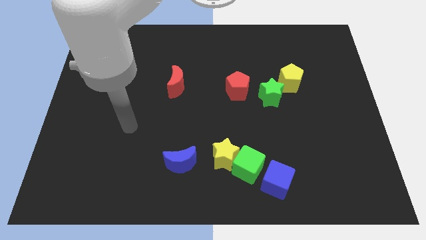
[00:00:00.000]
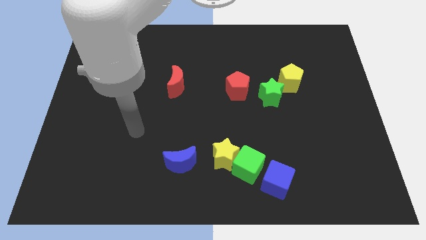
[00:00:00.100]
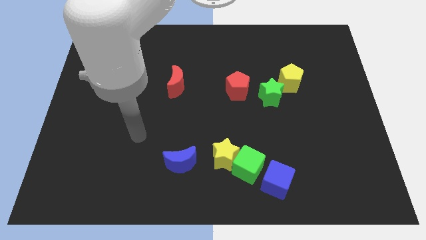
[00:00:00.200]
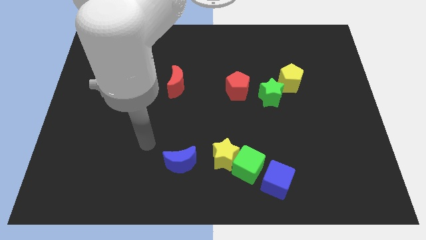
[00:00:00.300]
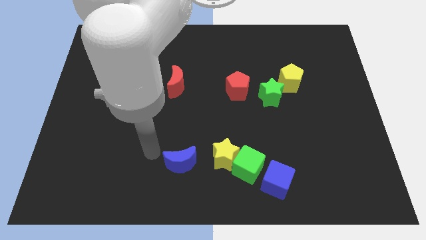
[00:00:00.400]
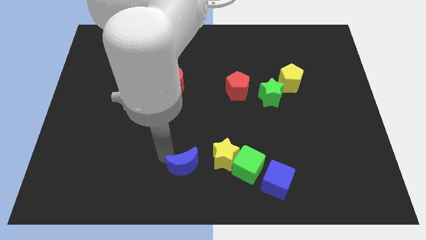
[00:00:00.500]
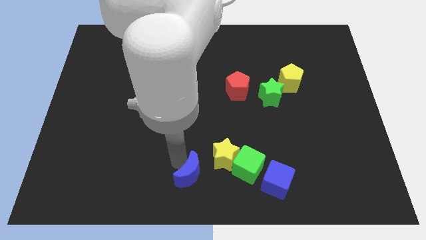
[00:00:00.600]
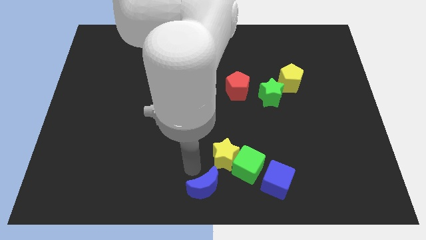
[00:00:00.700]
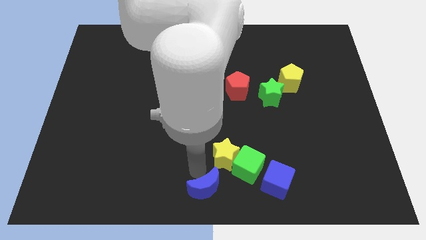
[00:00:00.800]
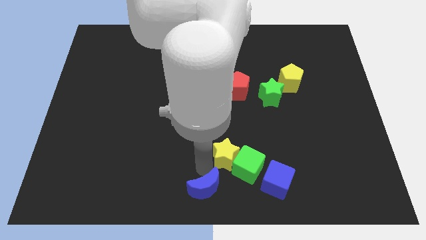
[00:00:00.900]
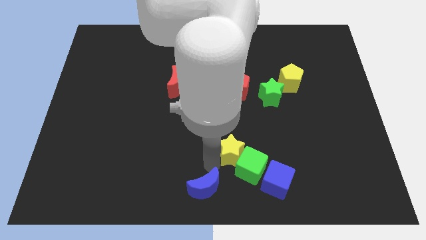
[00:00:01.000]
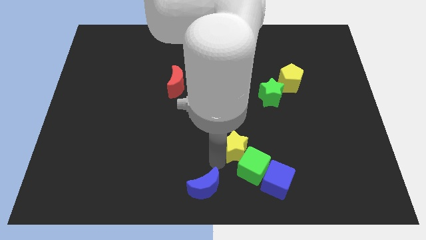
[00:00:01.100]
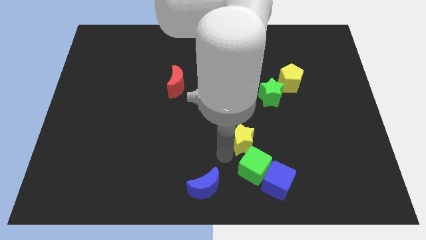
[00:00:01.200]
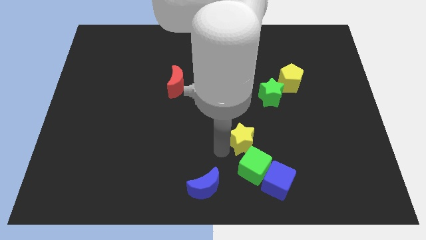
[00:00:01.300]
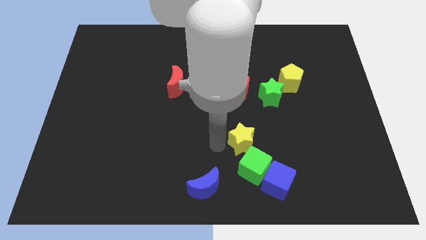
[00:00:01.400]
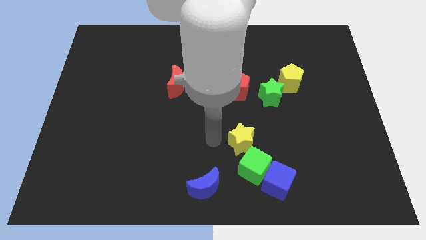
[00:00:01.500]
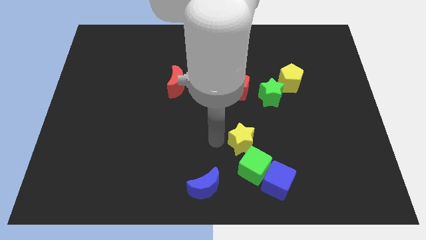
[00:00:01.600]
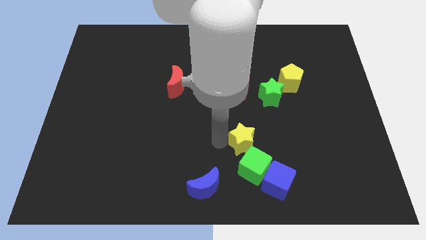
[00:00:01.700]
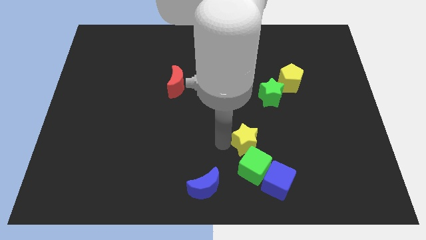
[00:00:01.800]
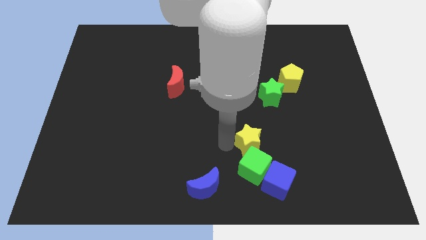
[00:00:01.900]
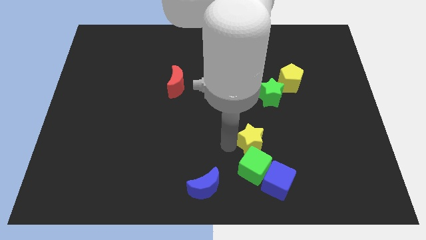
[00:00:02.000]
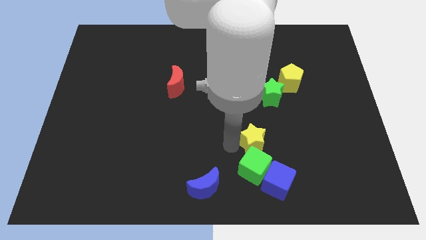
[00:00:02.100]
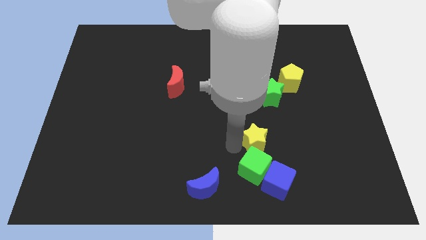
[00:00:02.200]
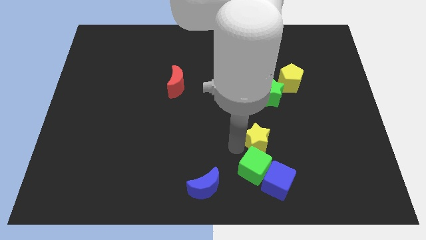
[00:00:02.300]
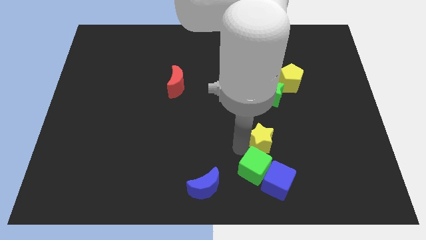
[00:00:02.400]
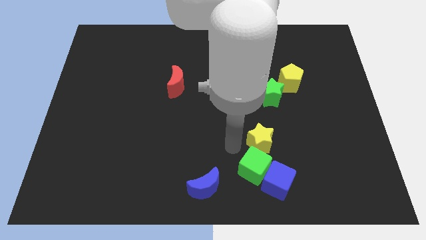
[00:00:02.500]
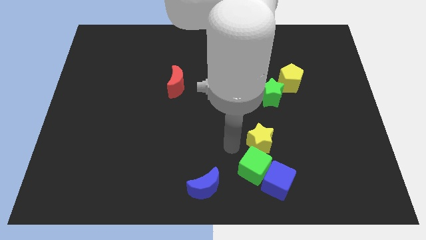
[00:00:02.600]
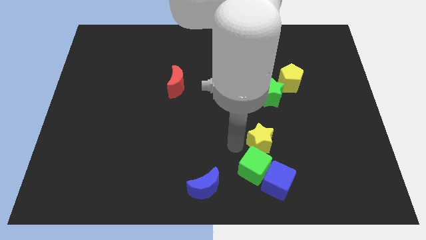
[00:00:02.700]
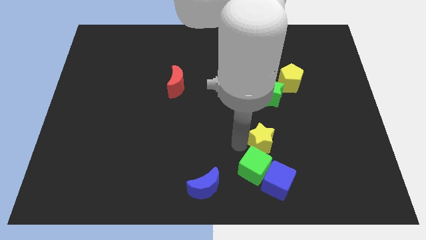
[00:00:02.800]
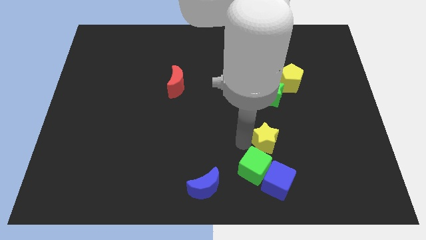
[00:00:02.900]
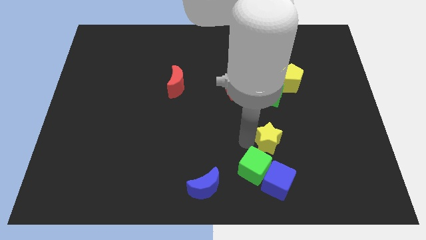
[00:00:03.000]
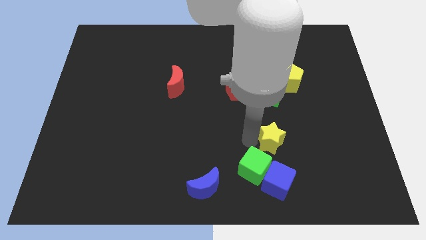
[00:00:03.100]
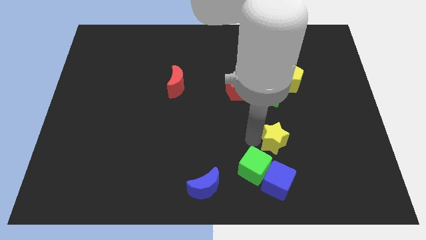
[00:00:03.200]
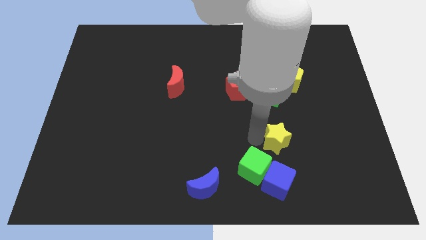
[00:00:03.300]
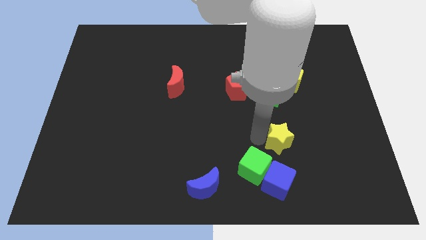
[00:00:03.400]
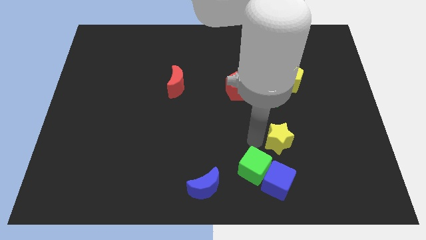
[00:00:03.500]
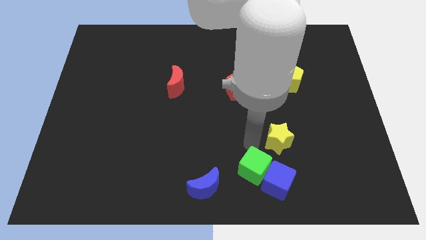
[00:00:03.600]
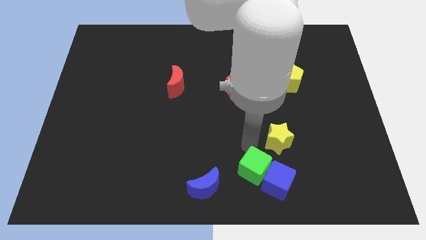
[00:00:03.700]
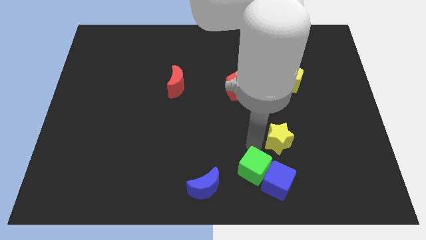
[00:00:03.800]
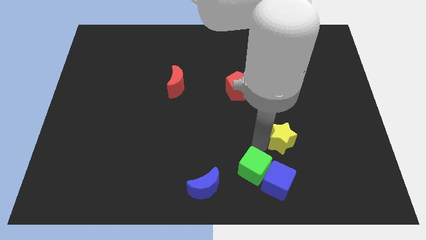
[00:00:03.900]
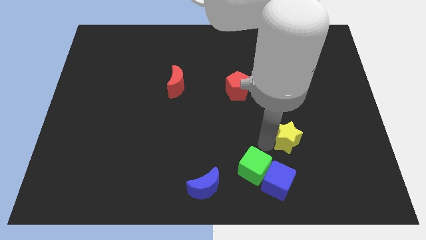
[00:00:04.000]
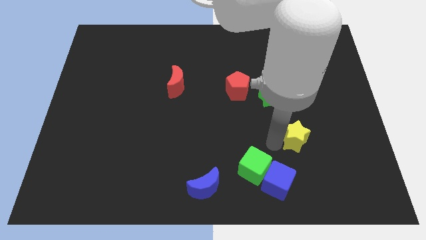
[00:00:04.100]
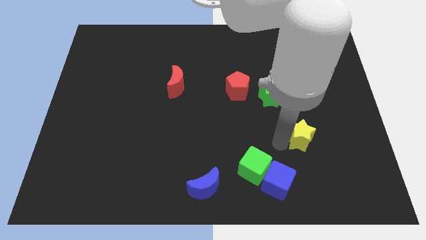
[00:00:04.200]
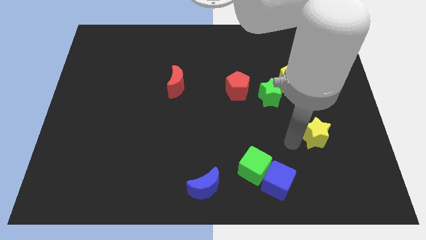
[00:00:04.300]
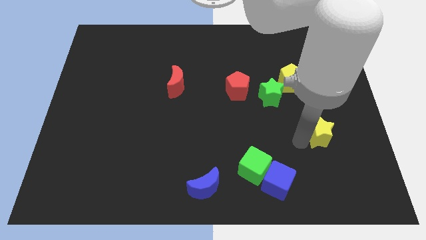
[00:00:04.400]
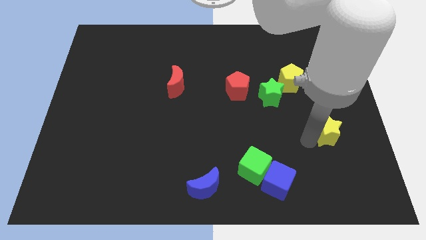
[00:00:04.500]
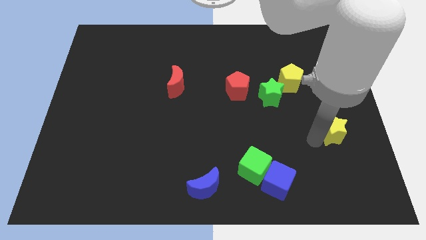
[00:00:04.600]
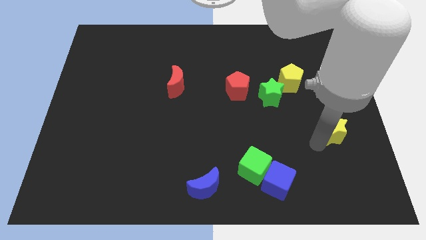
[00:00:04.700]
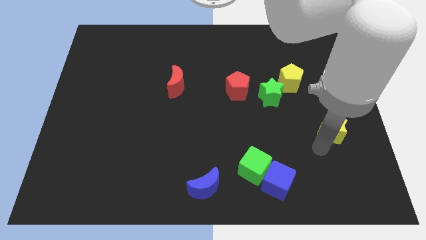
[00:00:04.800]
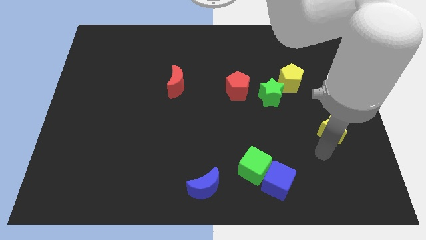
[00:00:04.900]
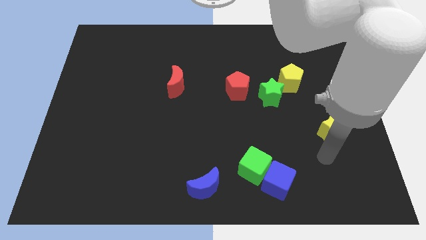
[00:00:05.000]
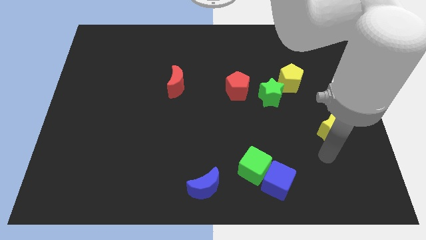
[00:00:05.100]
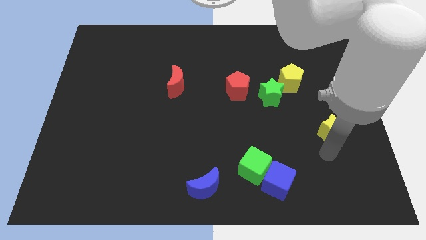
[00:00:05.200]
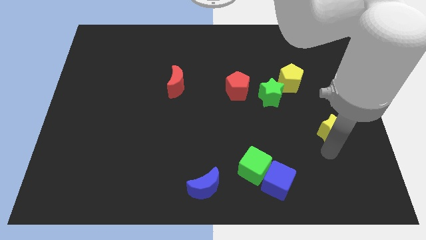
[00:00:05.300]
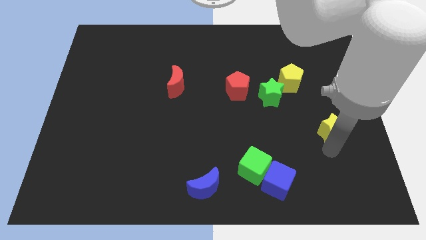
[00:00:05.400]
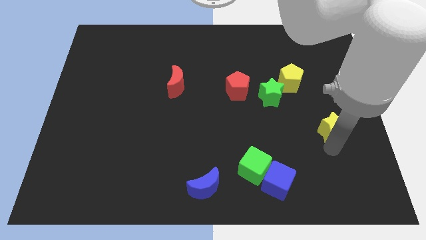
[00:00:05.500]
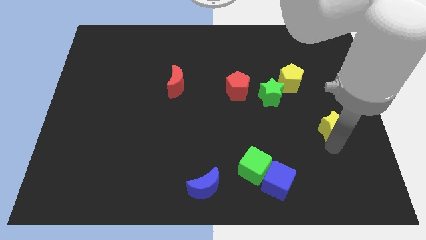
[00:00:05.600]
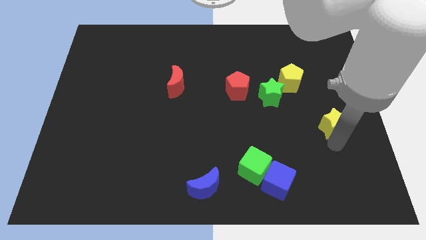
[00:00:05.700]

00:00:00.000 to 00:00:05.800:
move the yellow star to the center right

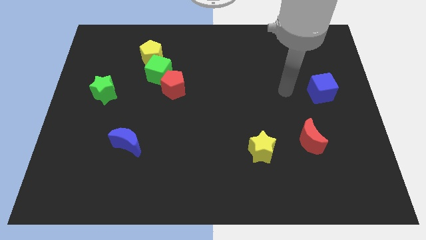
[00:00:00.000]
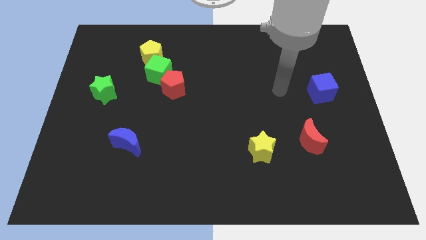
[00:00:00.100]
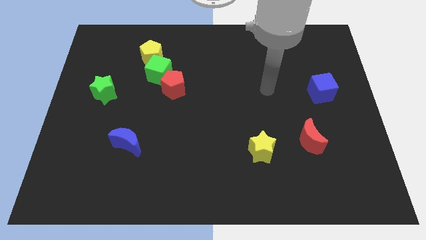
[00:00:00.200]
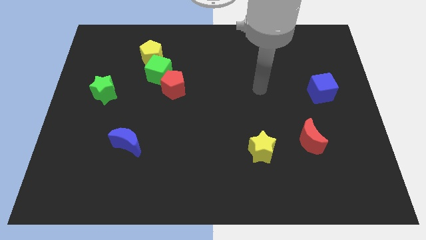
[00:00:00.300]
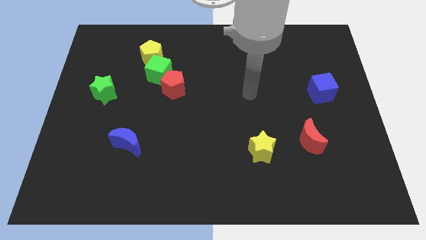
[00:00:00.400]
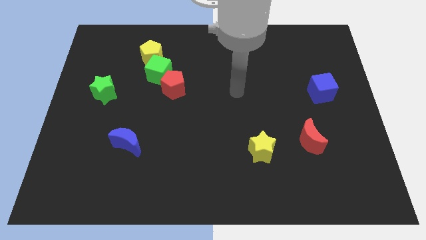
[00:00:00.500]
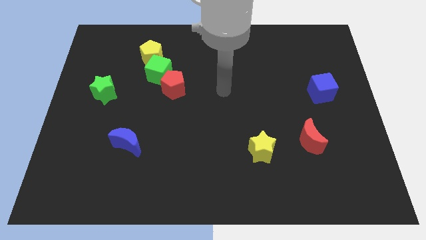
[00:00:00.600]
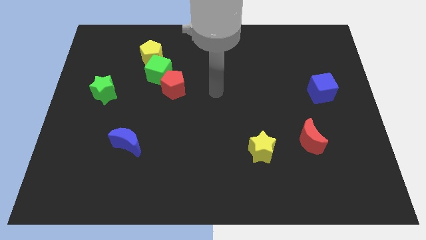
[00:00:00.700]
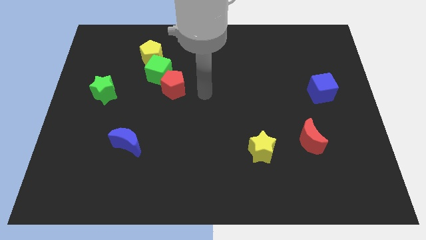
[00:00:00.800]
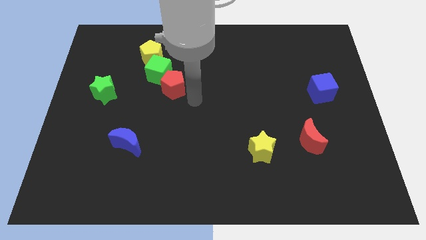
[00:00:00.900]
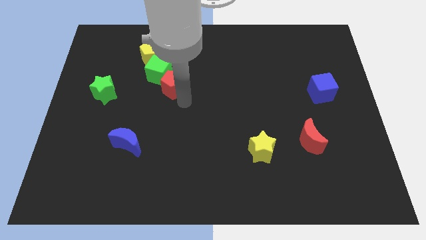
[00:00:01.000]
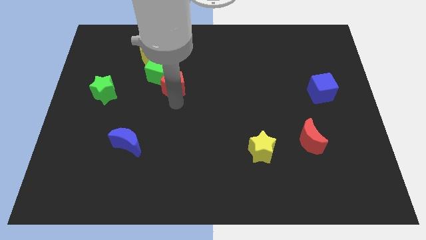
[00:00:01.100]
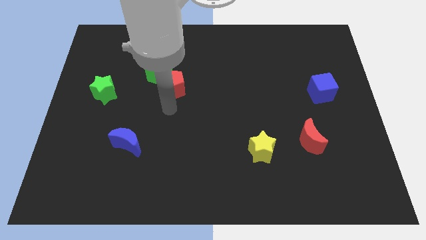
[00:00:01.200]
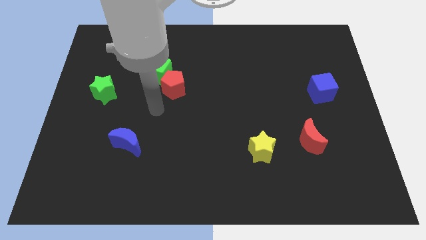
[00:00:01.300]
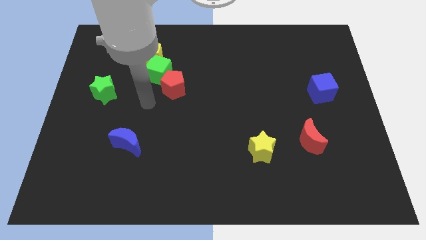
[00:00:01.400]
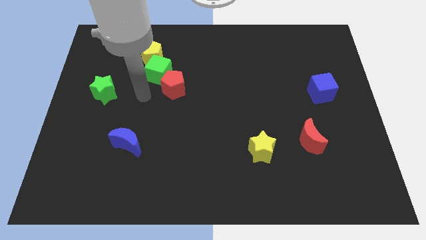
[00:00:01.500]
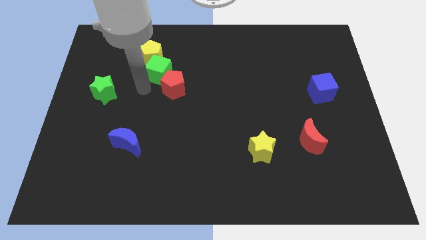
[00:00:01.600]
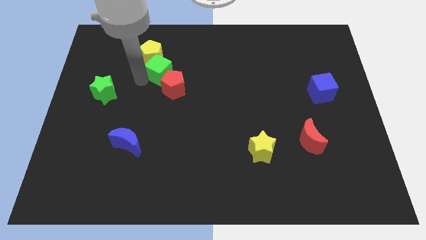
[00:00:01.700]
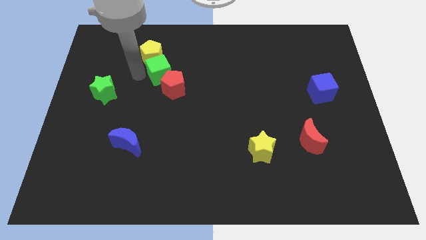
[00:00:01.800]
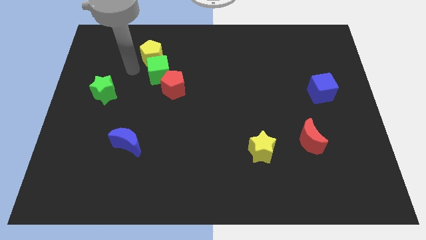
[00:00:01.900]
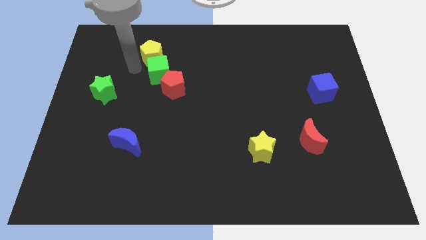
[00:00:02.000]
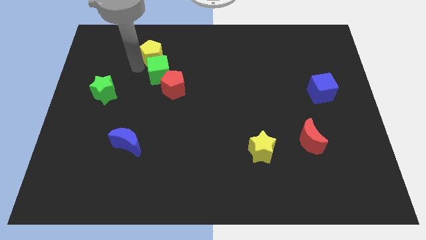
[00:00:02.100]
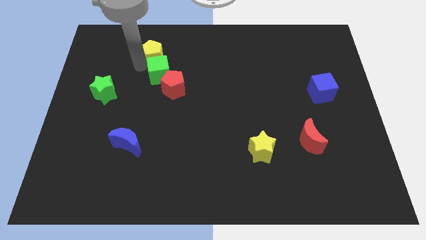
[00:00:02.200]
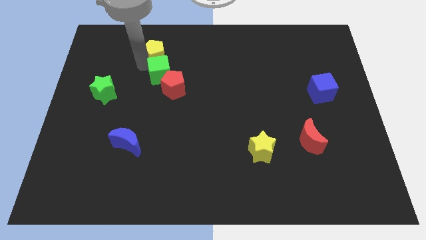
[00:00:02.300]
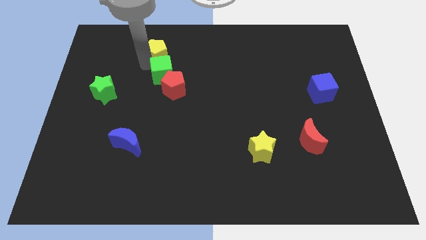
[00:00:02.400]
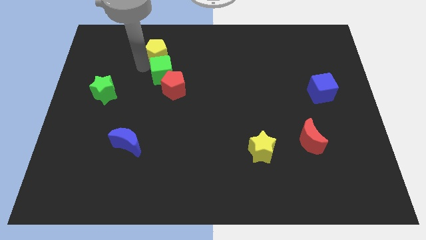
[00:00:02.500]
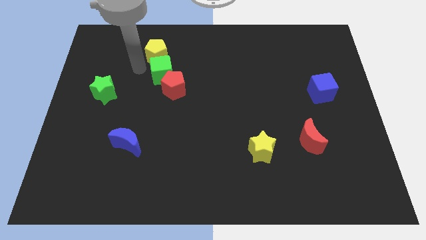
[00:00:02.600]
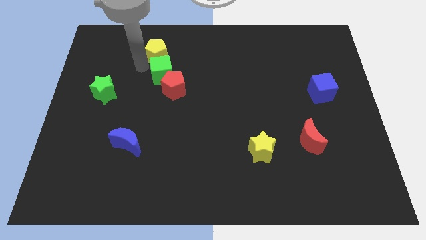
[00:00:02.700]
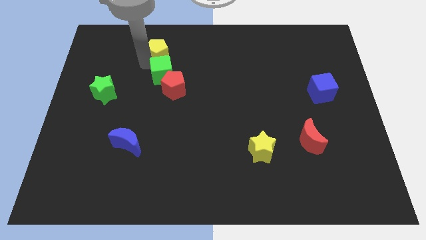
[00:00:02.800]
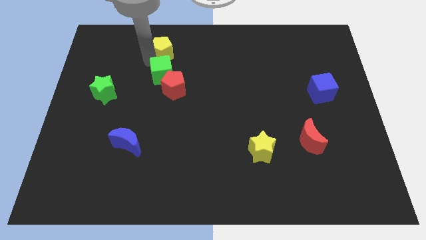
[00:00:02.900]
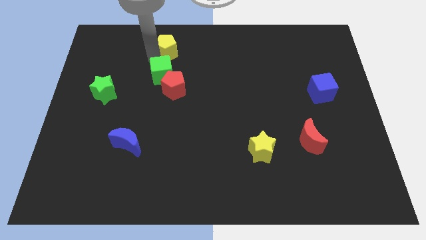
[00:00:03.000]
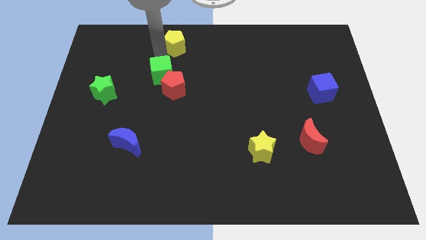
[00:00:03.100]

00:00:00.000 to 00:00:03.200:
move the yellow pentagon to the top side
